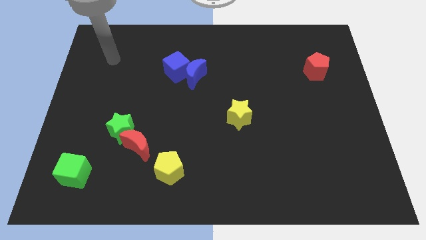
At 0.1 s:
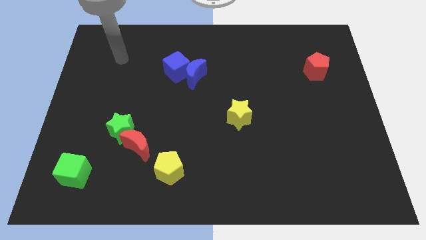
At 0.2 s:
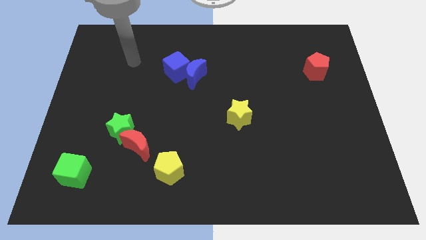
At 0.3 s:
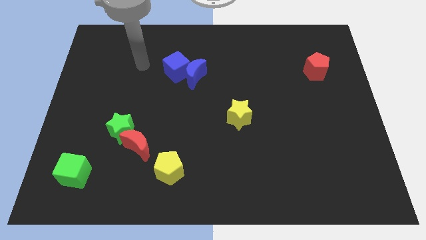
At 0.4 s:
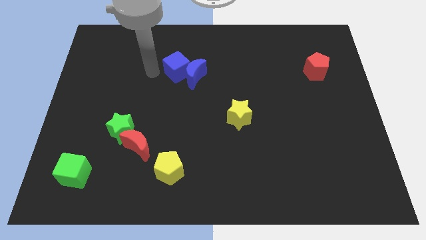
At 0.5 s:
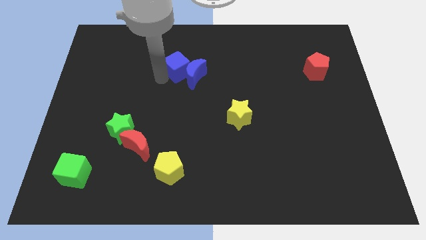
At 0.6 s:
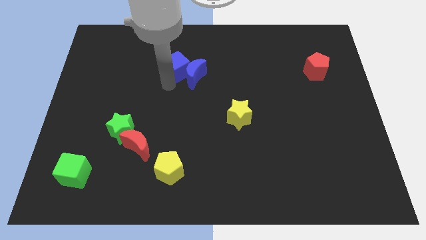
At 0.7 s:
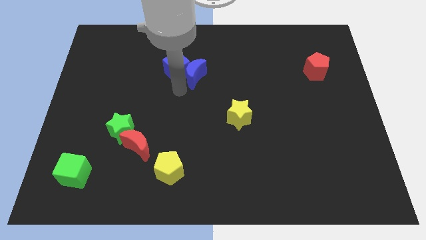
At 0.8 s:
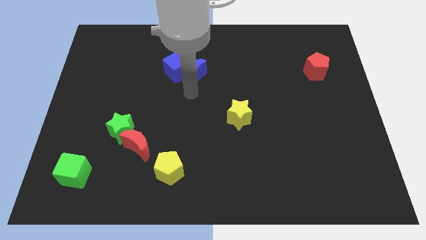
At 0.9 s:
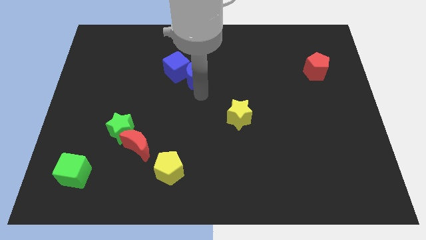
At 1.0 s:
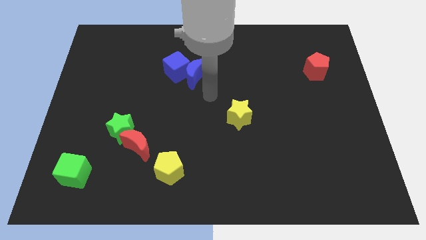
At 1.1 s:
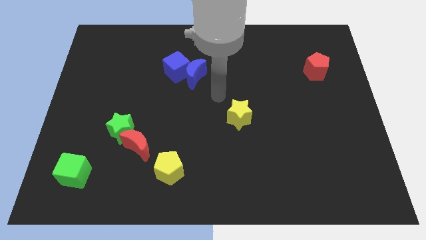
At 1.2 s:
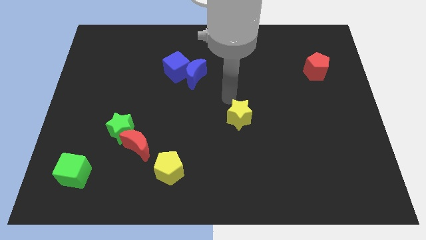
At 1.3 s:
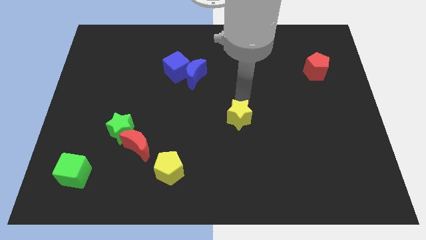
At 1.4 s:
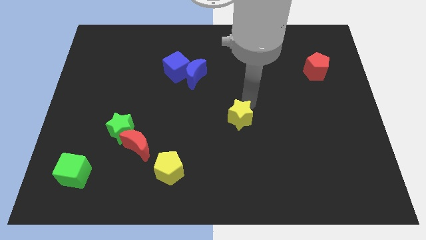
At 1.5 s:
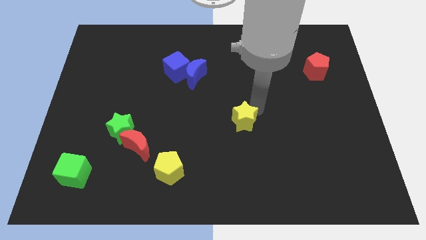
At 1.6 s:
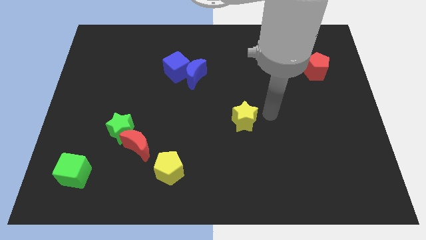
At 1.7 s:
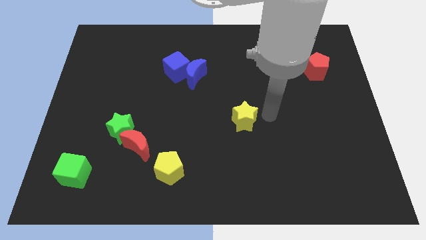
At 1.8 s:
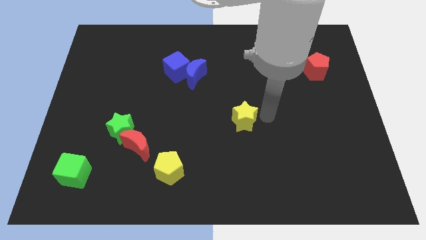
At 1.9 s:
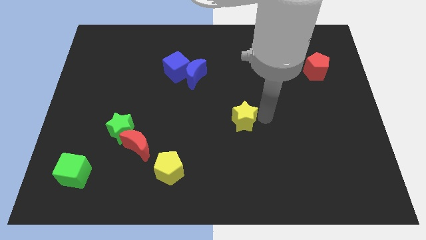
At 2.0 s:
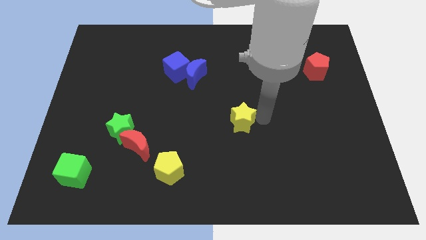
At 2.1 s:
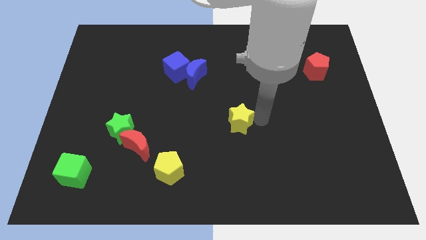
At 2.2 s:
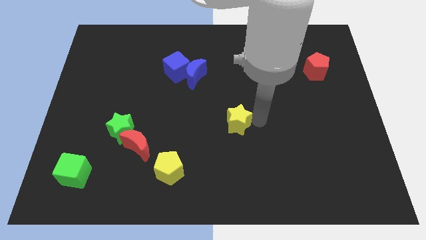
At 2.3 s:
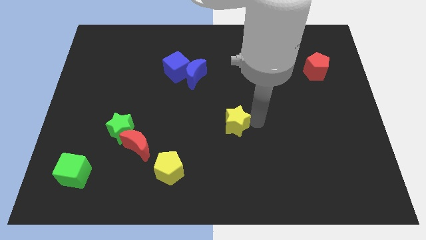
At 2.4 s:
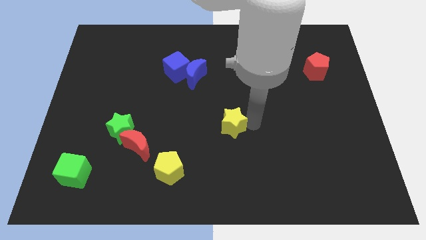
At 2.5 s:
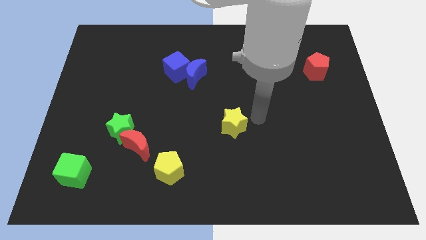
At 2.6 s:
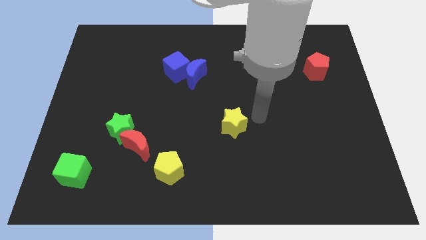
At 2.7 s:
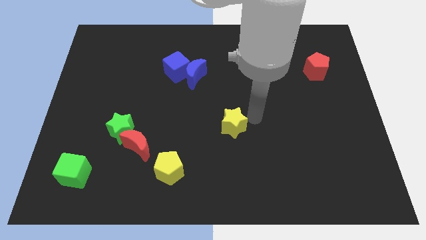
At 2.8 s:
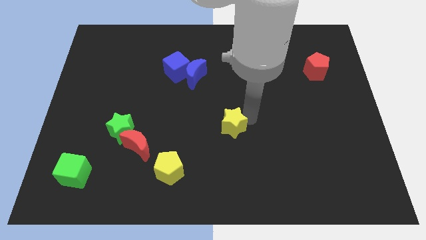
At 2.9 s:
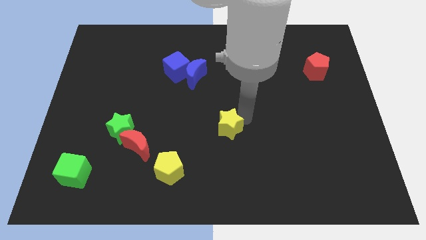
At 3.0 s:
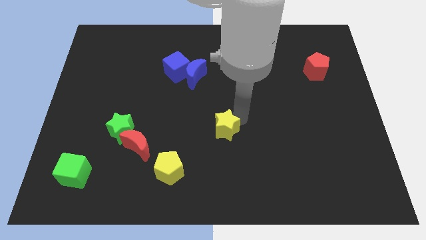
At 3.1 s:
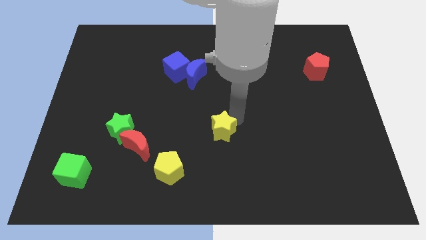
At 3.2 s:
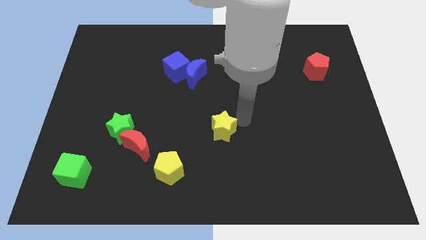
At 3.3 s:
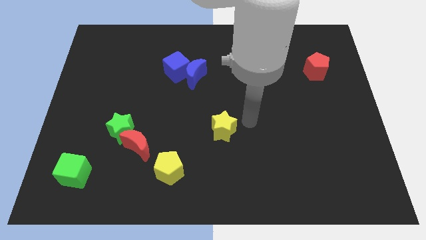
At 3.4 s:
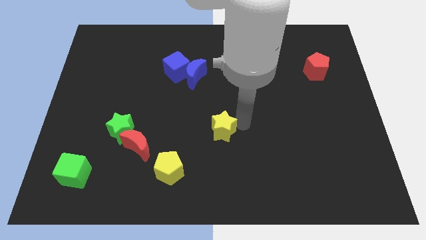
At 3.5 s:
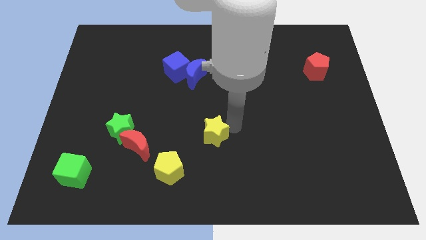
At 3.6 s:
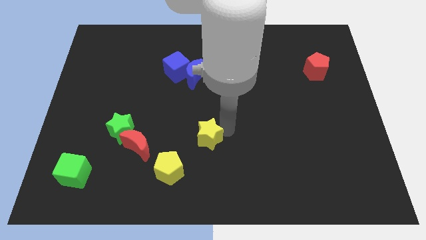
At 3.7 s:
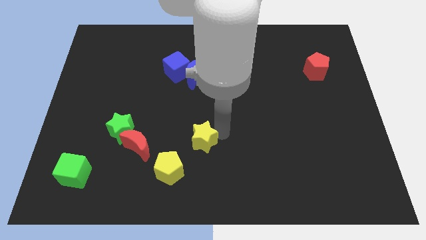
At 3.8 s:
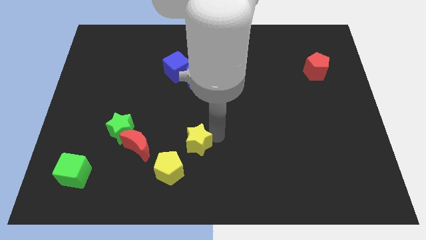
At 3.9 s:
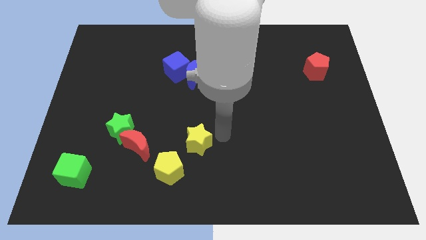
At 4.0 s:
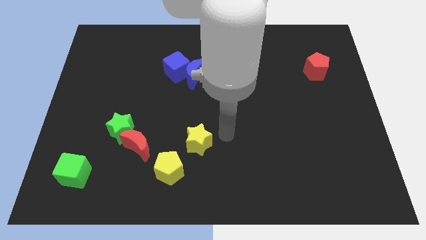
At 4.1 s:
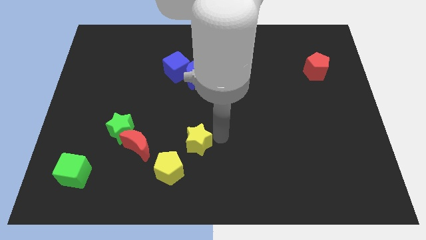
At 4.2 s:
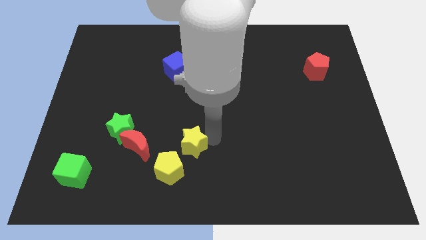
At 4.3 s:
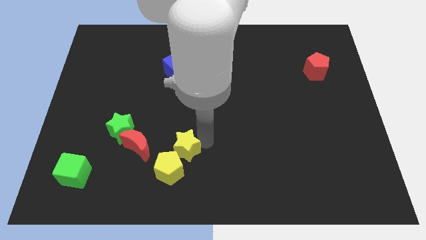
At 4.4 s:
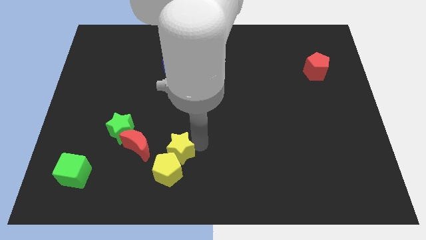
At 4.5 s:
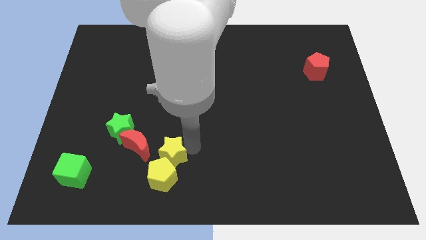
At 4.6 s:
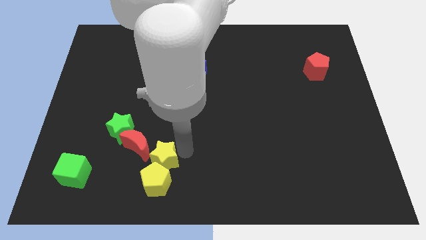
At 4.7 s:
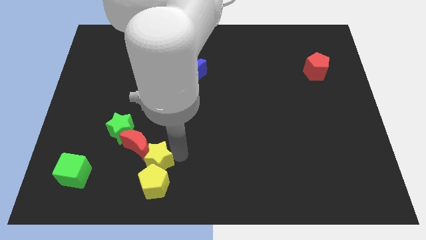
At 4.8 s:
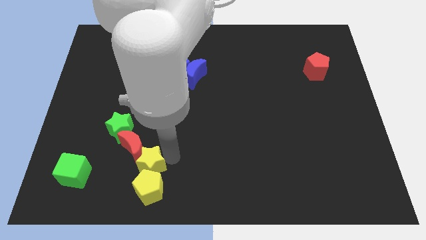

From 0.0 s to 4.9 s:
push the yellow star right of the green cube

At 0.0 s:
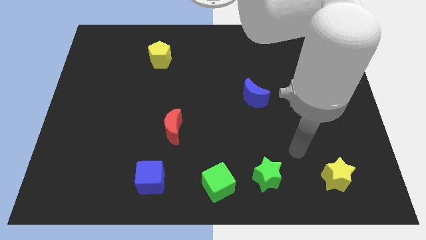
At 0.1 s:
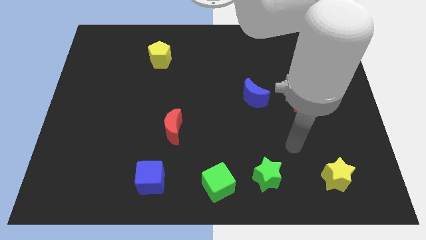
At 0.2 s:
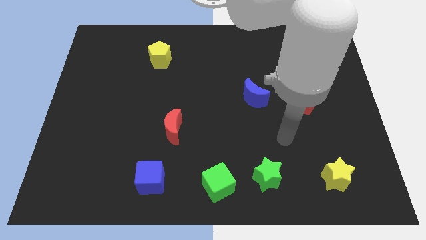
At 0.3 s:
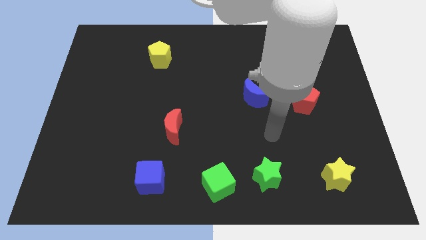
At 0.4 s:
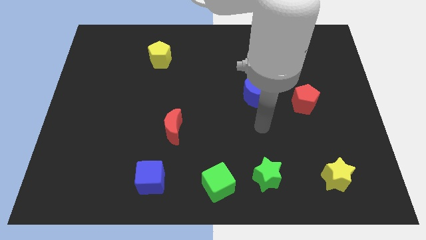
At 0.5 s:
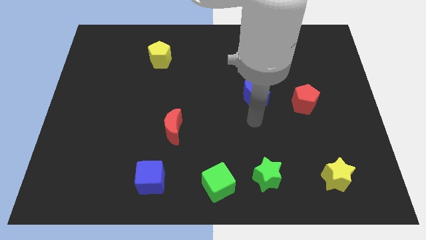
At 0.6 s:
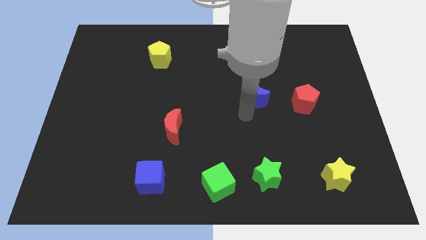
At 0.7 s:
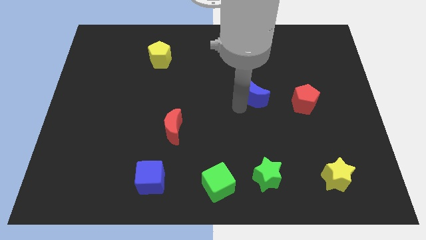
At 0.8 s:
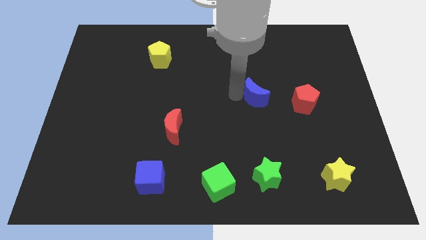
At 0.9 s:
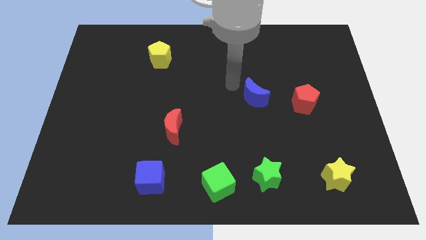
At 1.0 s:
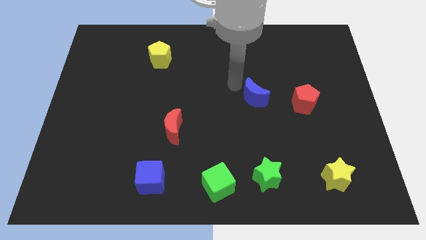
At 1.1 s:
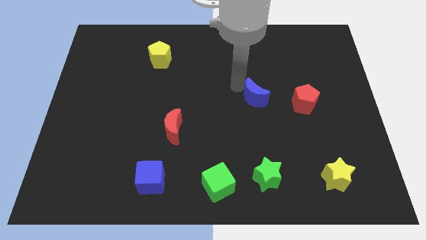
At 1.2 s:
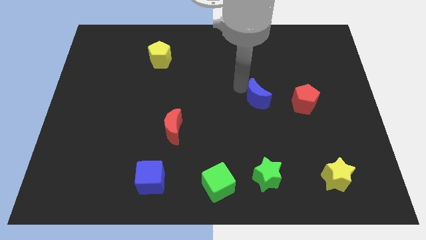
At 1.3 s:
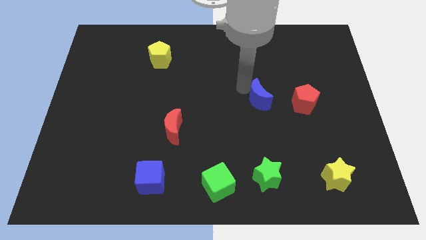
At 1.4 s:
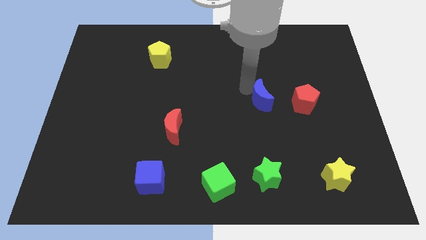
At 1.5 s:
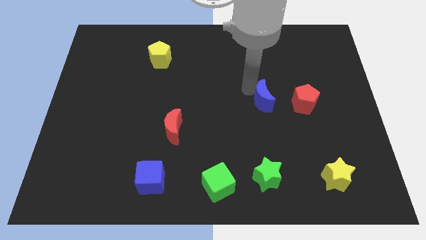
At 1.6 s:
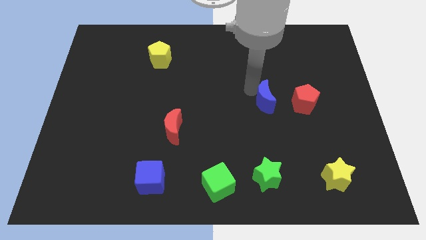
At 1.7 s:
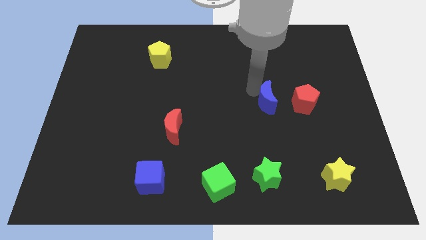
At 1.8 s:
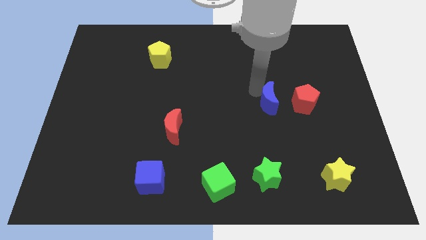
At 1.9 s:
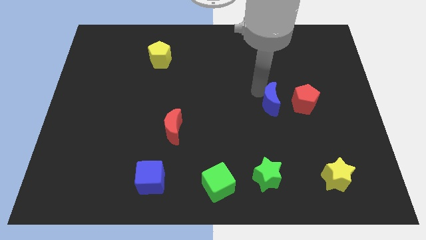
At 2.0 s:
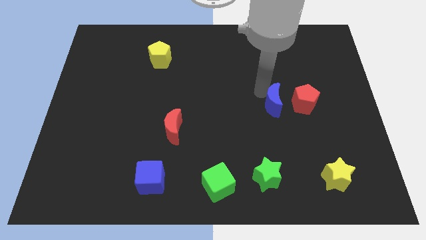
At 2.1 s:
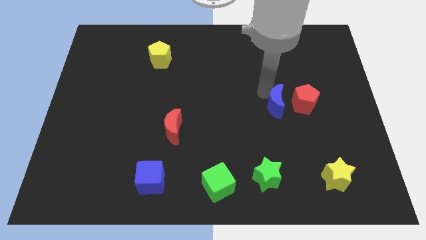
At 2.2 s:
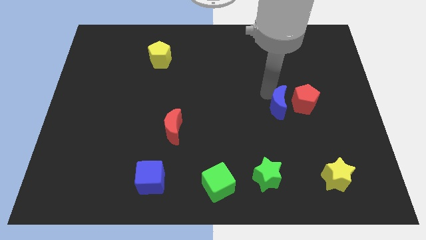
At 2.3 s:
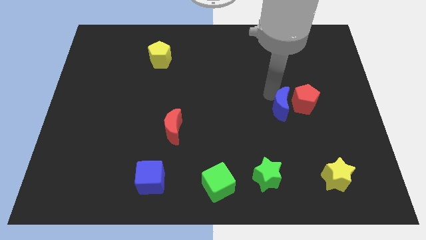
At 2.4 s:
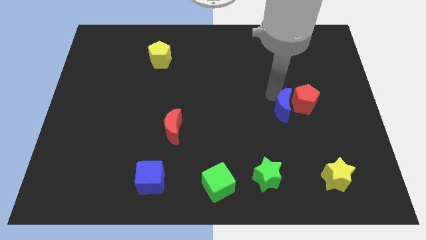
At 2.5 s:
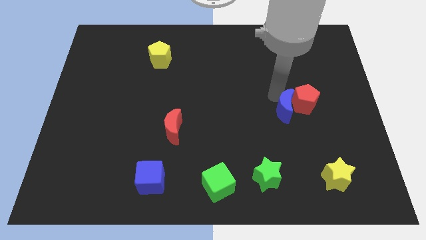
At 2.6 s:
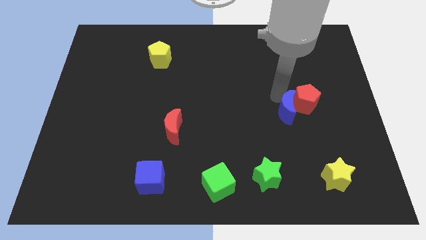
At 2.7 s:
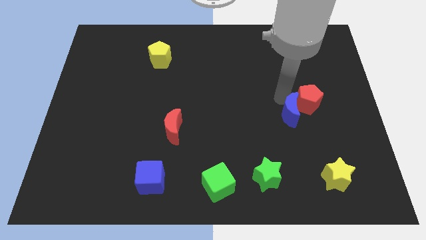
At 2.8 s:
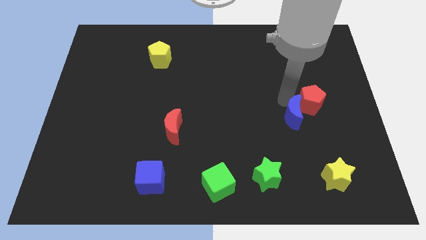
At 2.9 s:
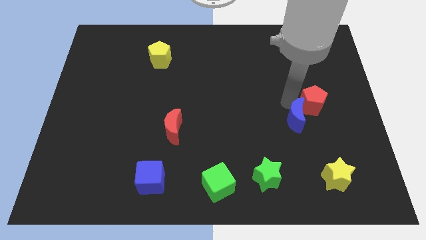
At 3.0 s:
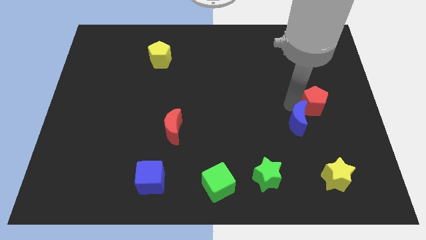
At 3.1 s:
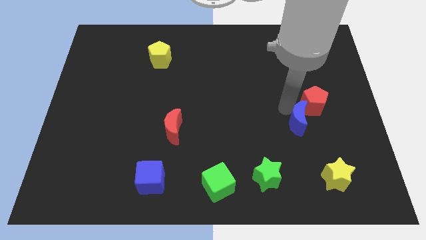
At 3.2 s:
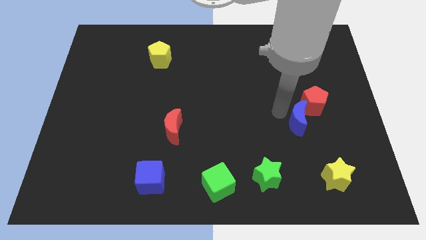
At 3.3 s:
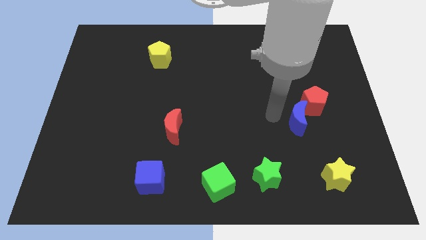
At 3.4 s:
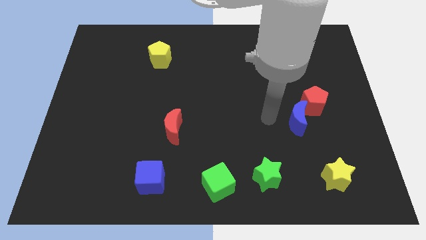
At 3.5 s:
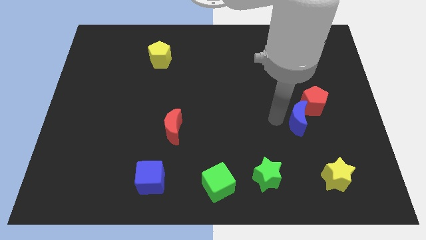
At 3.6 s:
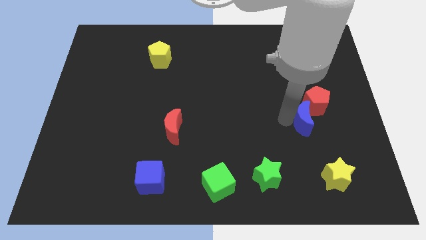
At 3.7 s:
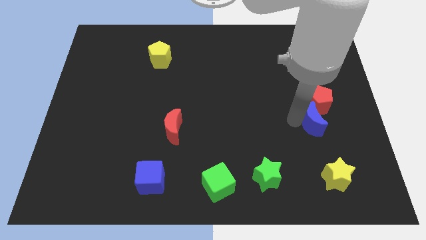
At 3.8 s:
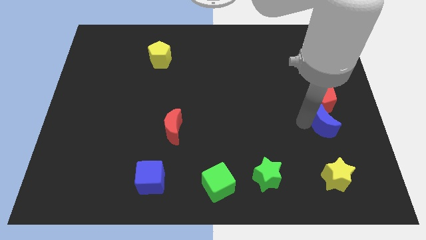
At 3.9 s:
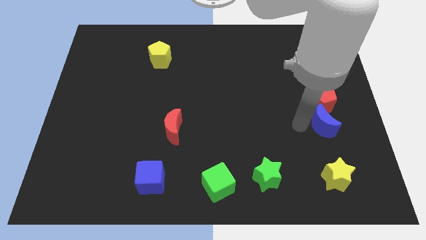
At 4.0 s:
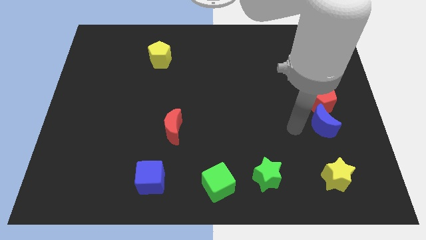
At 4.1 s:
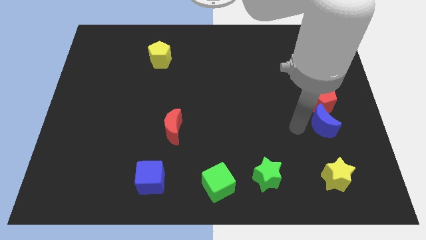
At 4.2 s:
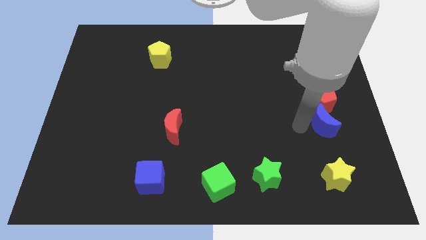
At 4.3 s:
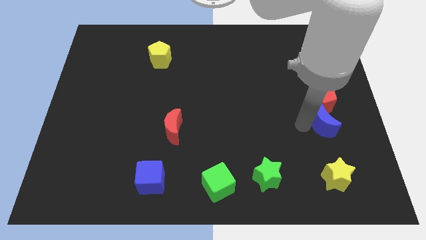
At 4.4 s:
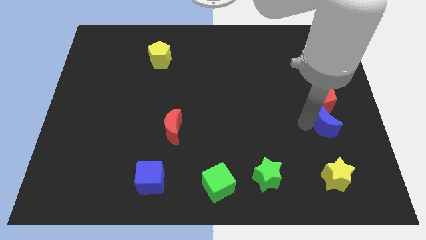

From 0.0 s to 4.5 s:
move the blue moon to the bottom right side of the red pentagon
